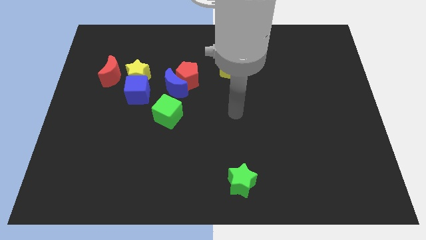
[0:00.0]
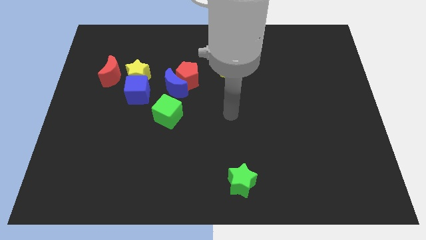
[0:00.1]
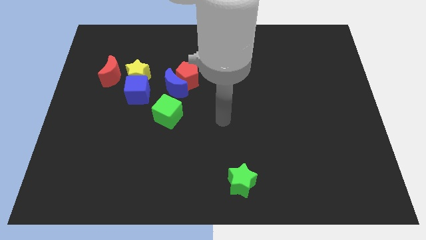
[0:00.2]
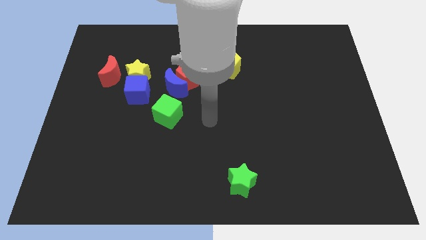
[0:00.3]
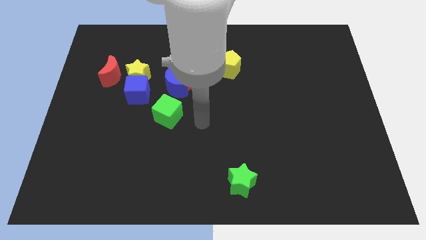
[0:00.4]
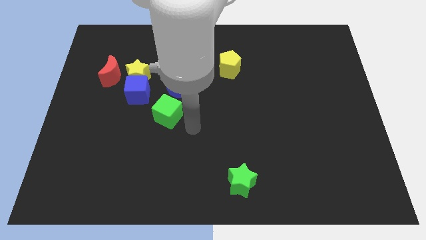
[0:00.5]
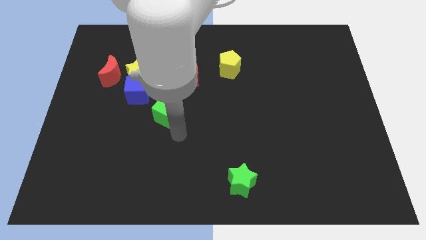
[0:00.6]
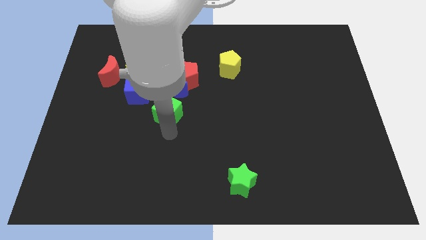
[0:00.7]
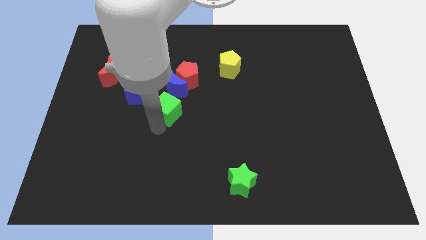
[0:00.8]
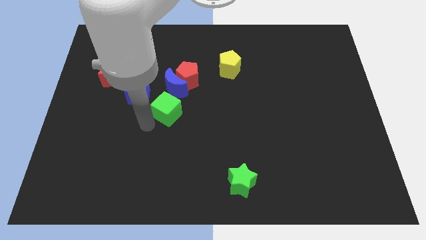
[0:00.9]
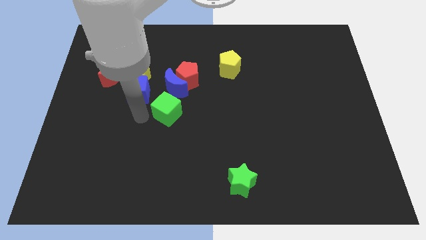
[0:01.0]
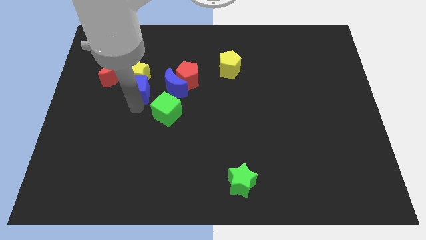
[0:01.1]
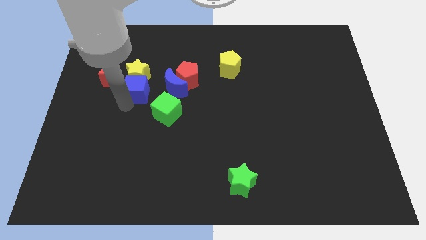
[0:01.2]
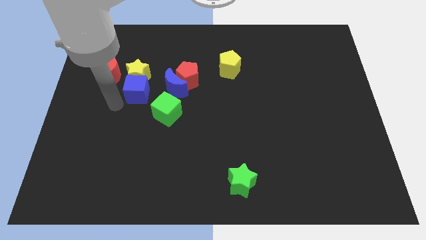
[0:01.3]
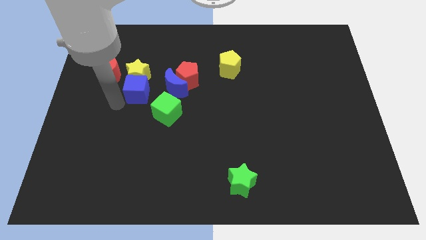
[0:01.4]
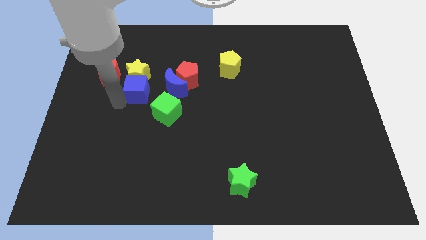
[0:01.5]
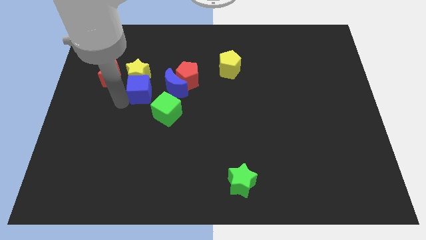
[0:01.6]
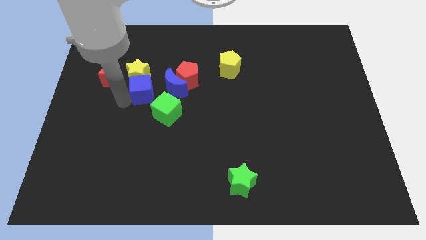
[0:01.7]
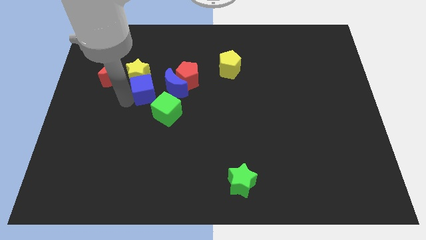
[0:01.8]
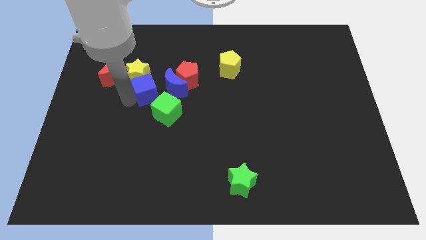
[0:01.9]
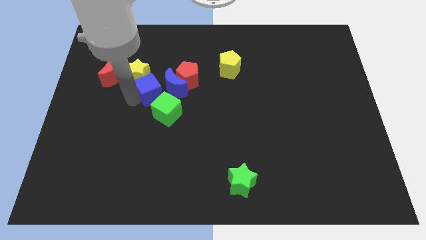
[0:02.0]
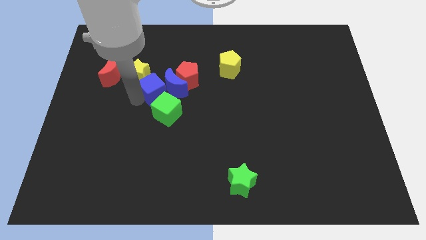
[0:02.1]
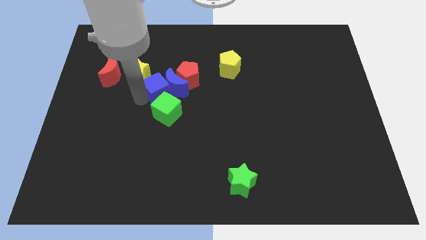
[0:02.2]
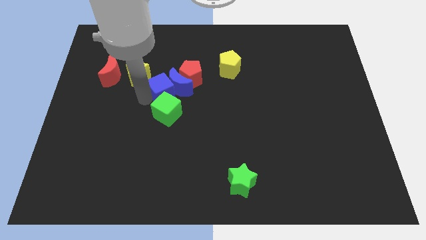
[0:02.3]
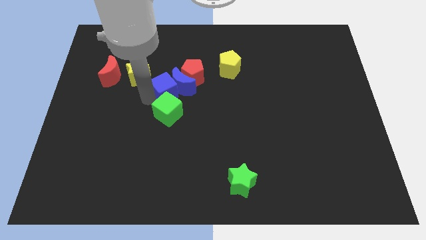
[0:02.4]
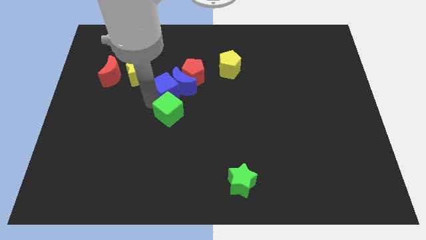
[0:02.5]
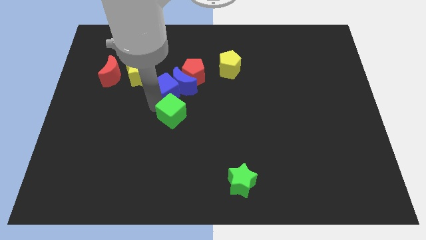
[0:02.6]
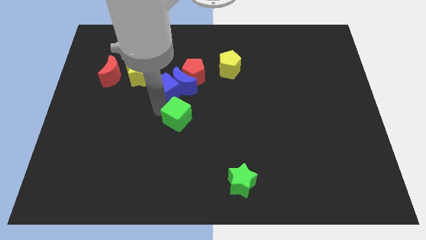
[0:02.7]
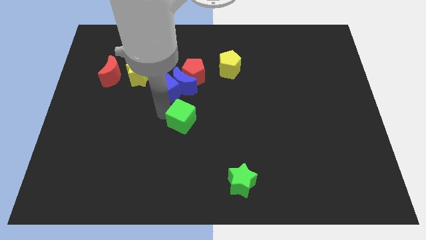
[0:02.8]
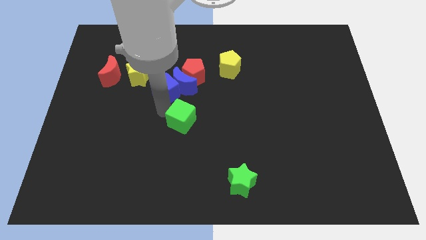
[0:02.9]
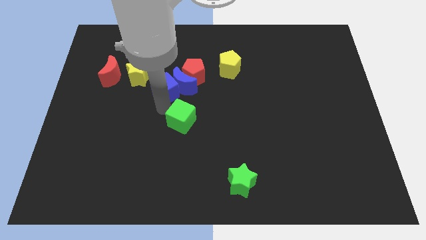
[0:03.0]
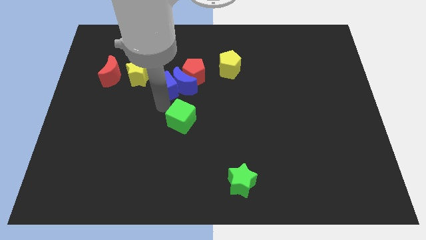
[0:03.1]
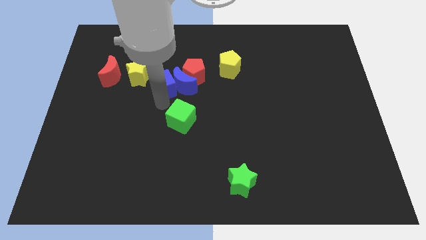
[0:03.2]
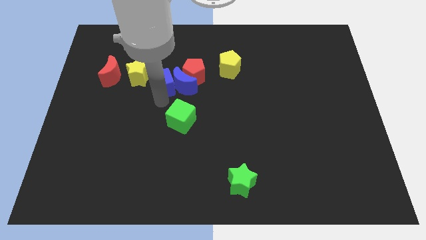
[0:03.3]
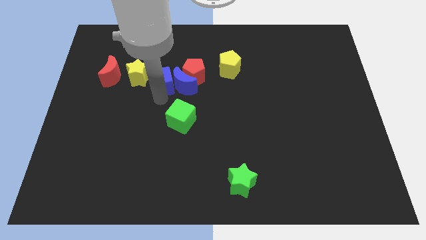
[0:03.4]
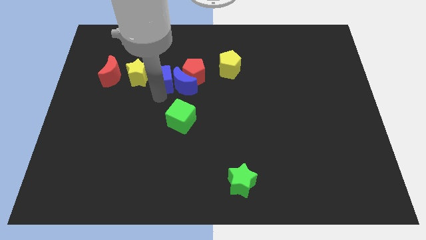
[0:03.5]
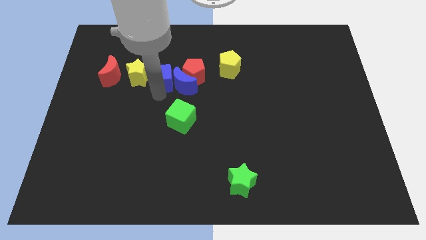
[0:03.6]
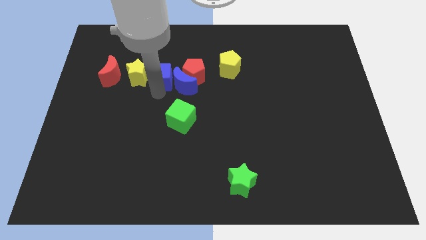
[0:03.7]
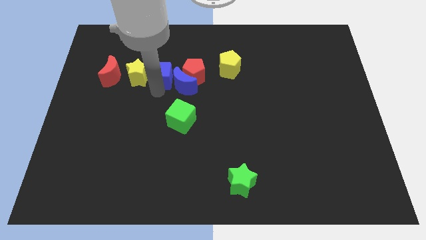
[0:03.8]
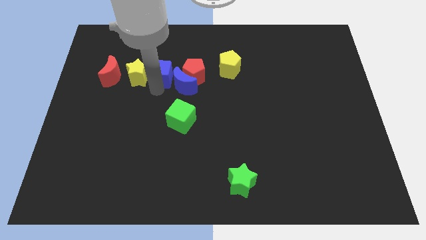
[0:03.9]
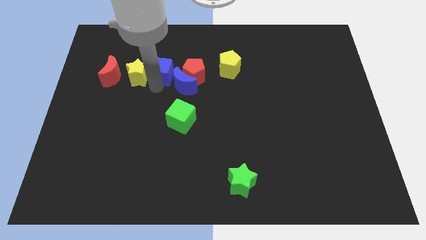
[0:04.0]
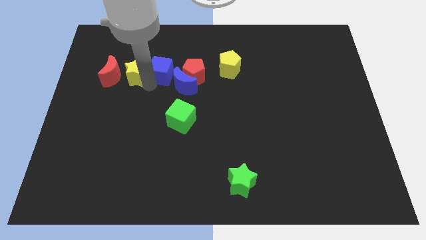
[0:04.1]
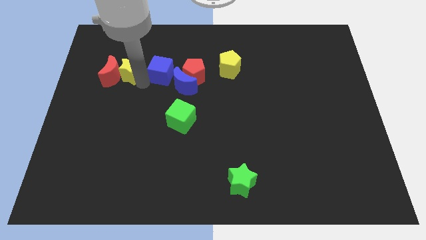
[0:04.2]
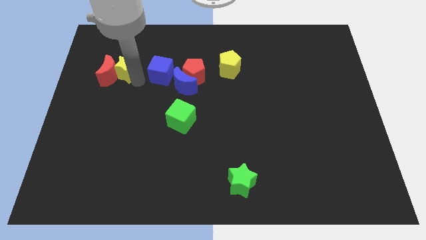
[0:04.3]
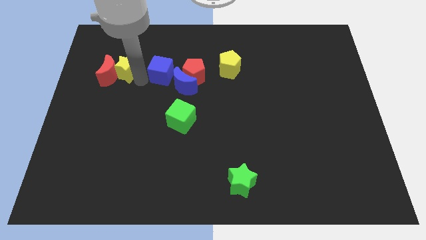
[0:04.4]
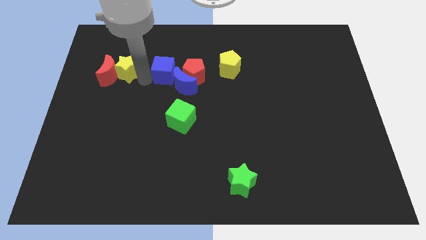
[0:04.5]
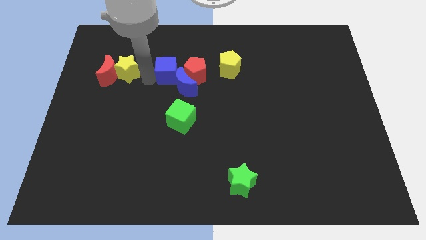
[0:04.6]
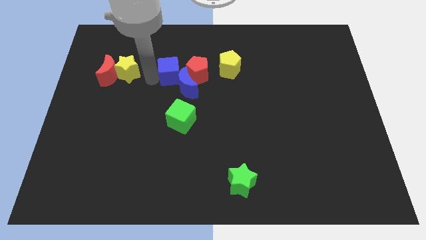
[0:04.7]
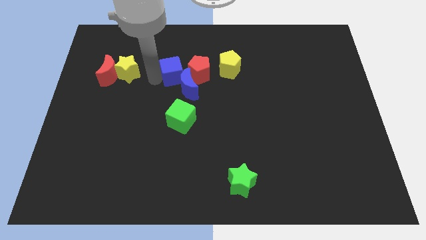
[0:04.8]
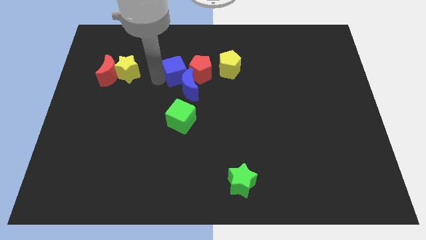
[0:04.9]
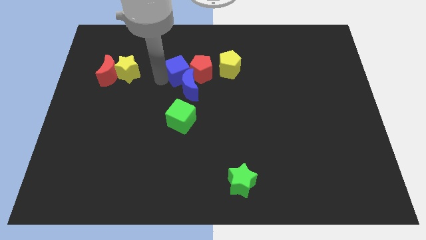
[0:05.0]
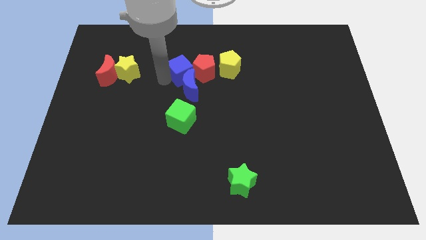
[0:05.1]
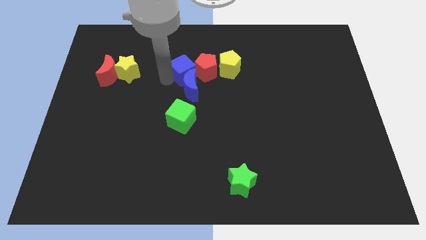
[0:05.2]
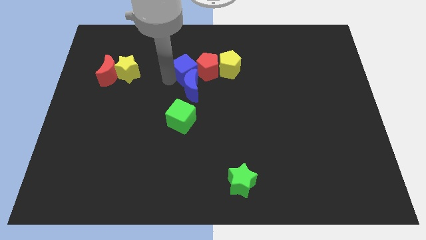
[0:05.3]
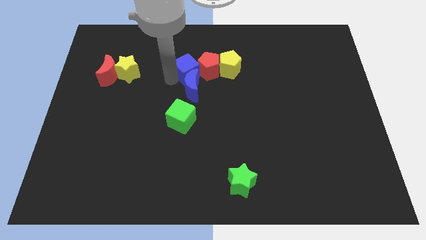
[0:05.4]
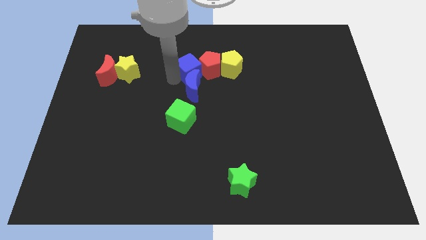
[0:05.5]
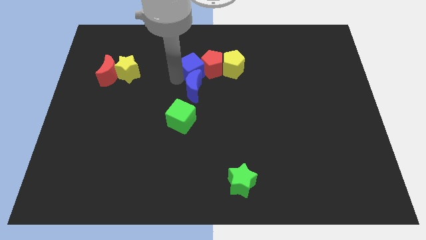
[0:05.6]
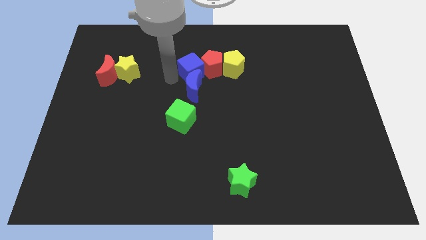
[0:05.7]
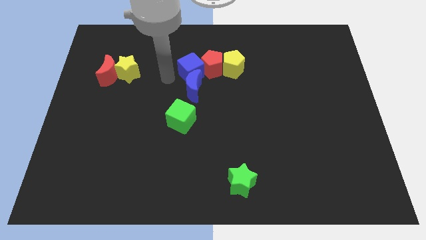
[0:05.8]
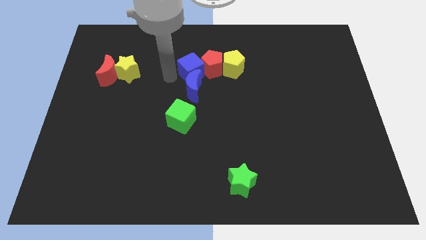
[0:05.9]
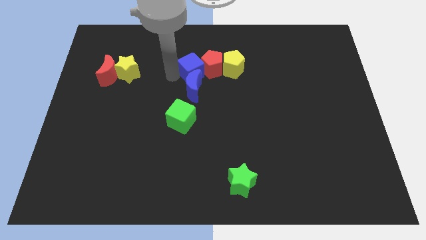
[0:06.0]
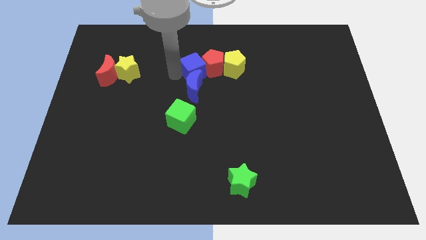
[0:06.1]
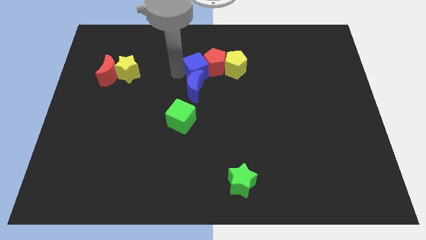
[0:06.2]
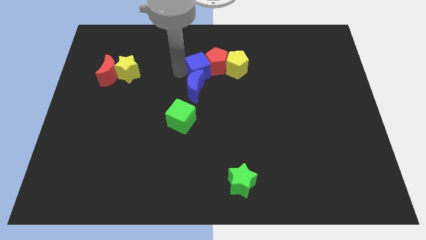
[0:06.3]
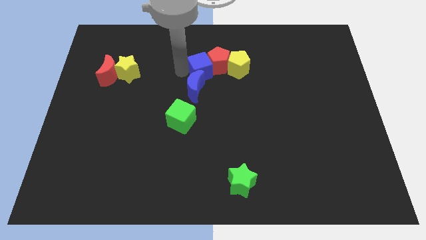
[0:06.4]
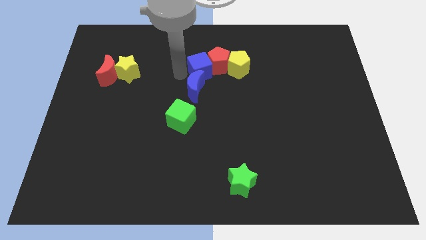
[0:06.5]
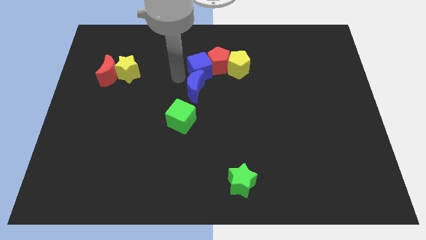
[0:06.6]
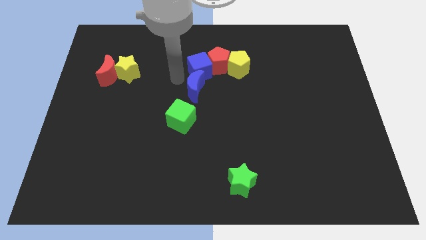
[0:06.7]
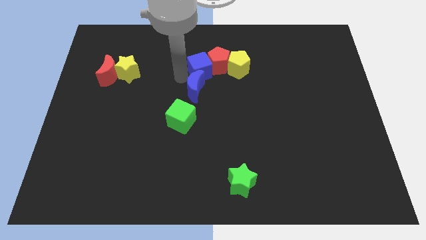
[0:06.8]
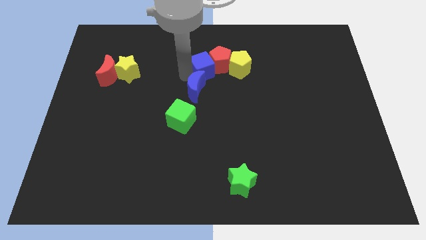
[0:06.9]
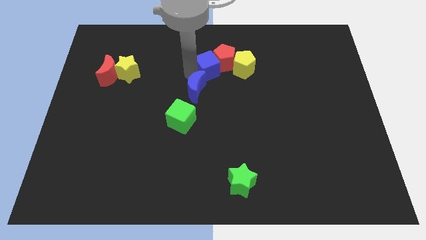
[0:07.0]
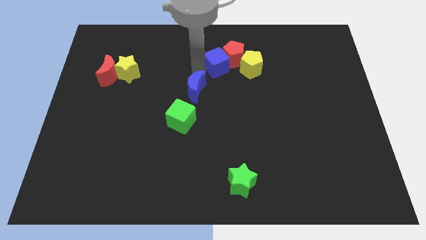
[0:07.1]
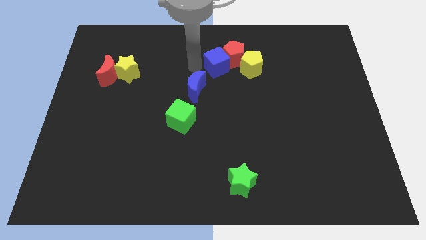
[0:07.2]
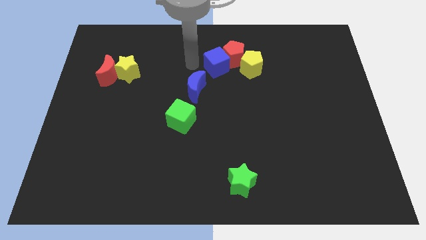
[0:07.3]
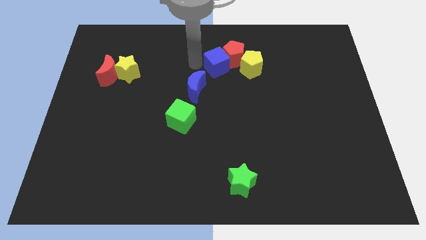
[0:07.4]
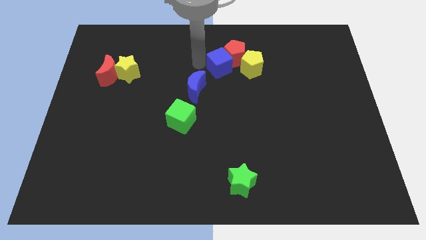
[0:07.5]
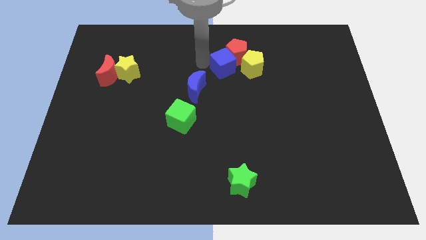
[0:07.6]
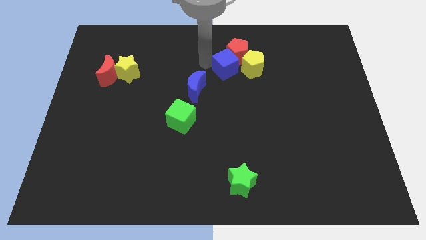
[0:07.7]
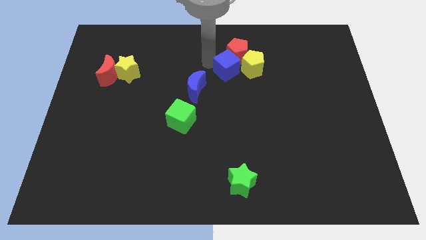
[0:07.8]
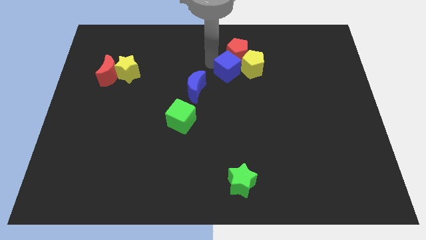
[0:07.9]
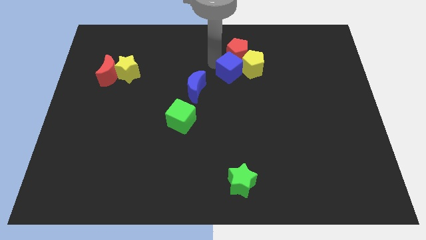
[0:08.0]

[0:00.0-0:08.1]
push the blue cube to the yellow pentagon
